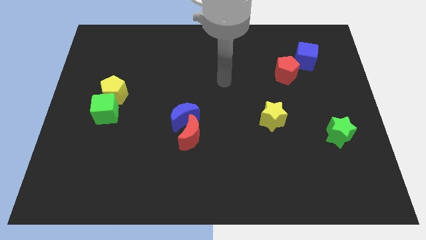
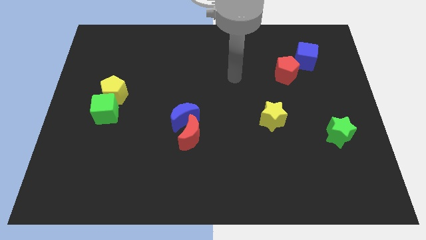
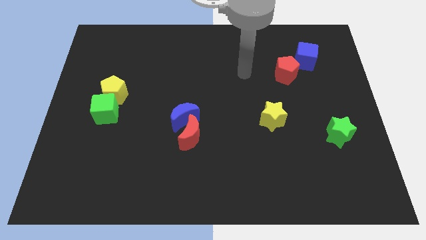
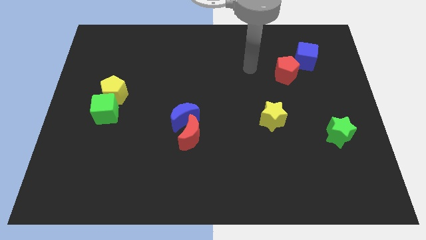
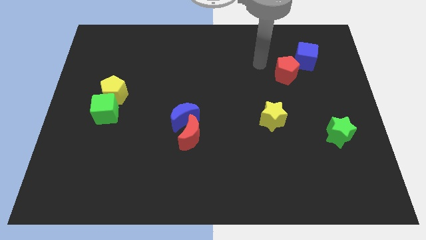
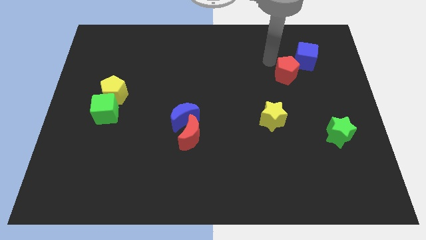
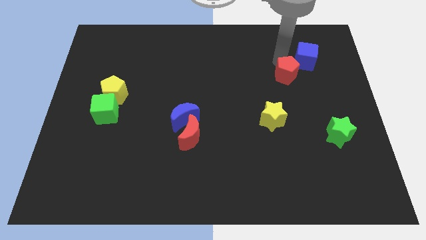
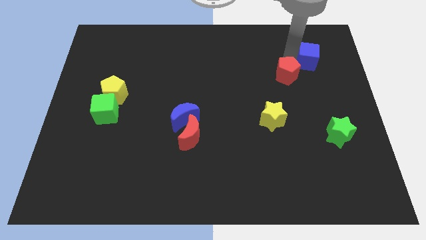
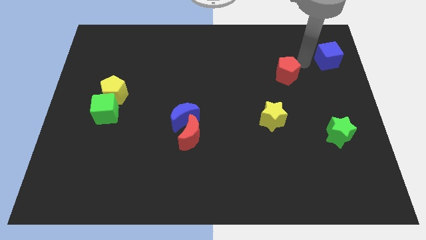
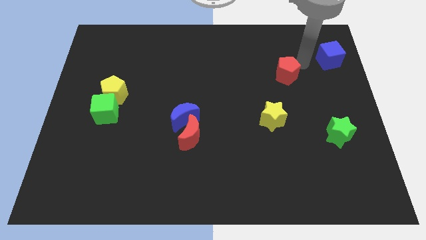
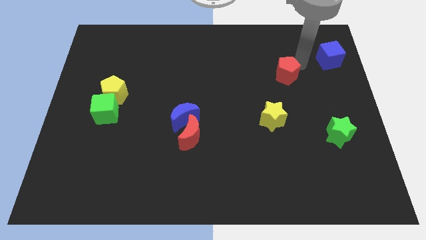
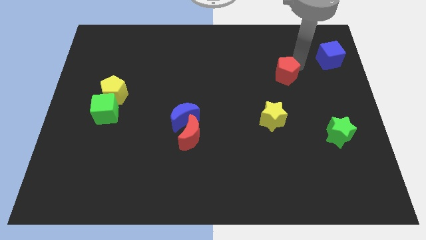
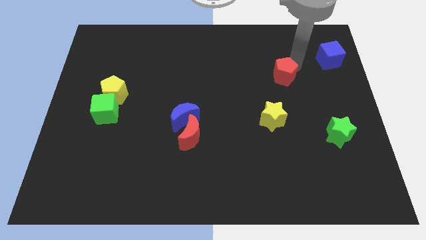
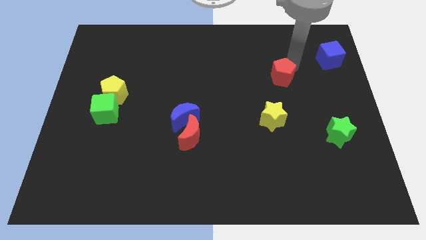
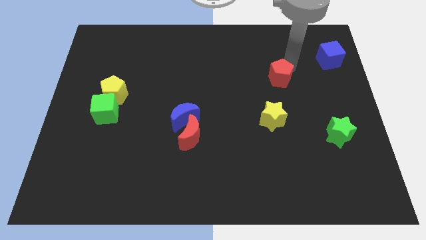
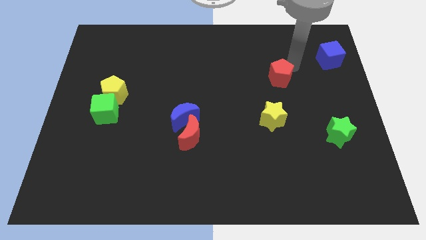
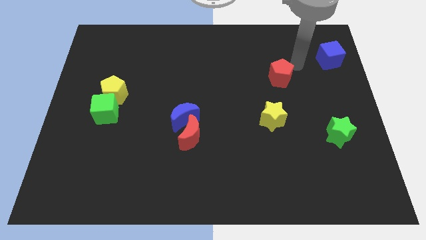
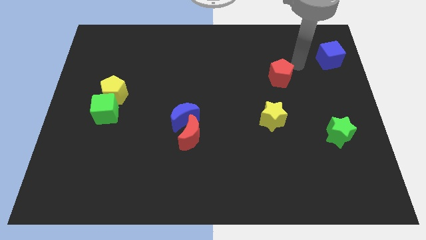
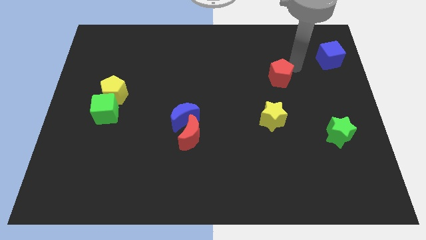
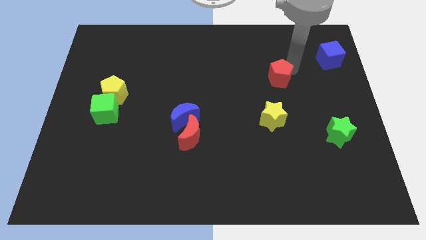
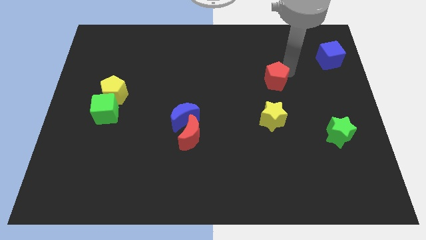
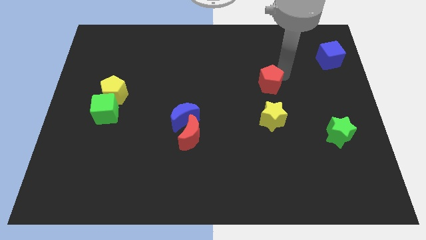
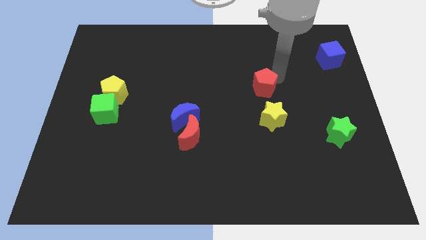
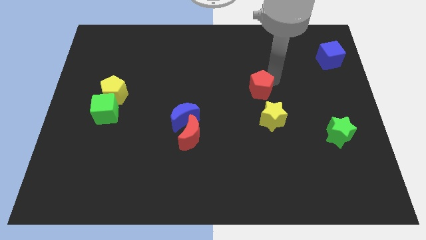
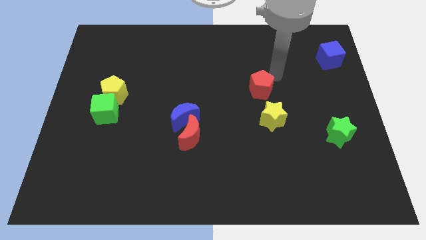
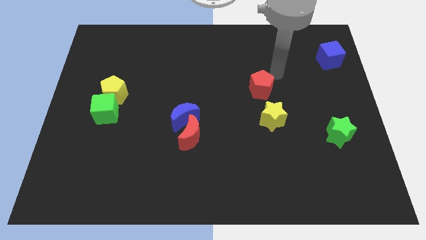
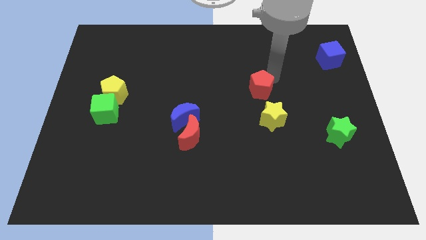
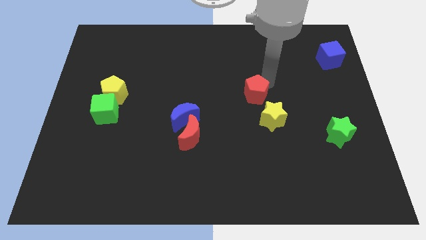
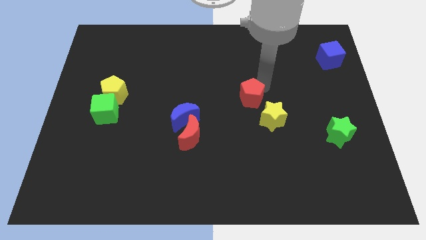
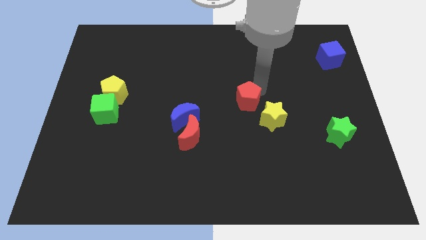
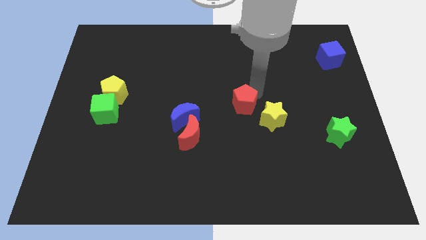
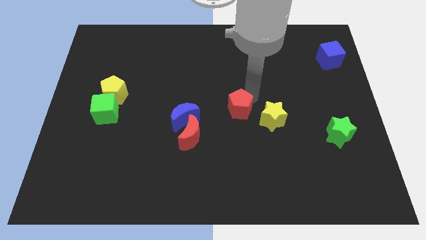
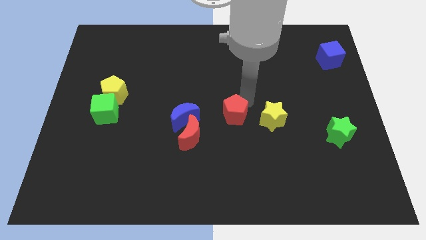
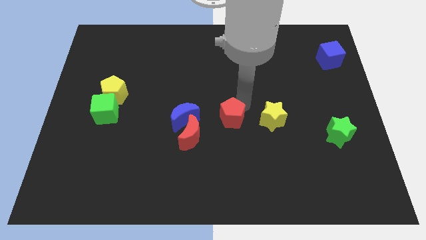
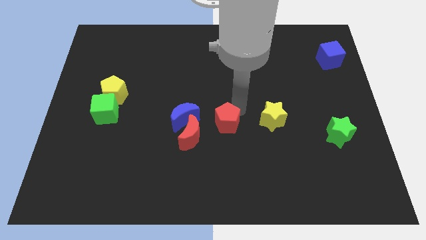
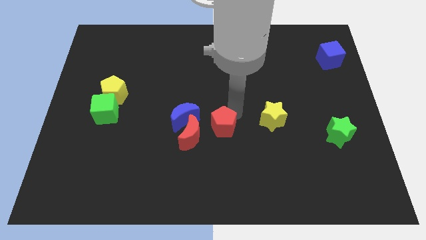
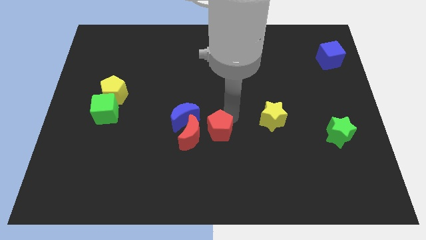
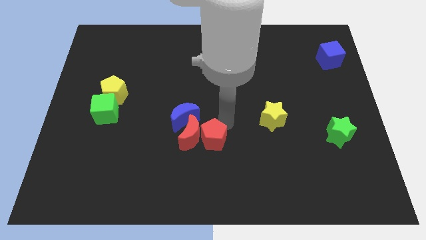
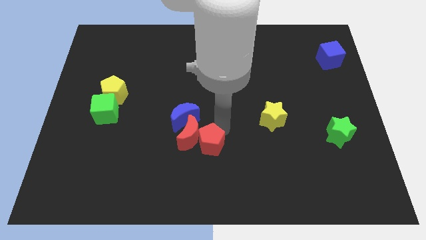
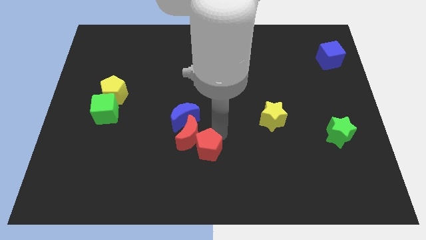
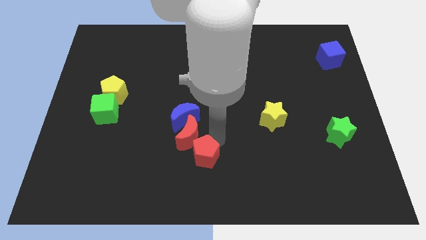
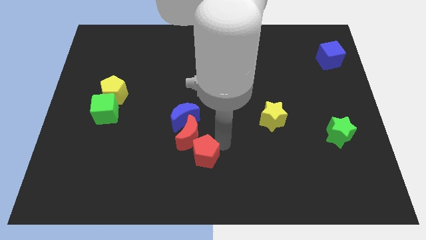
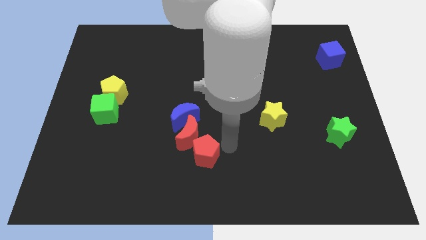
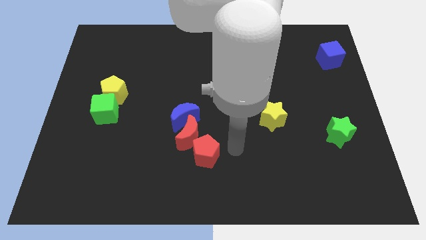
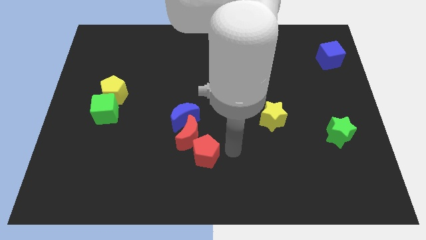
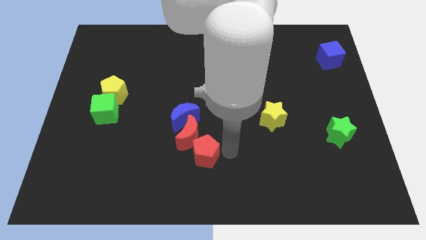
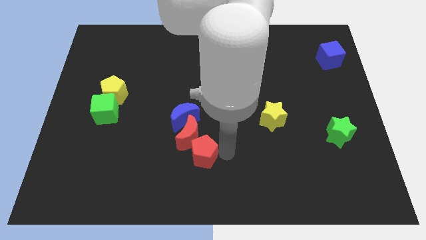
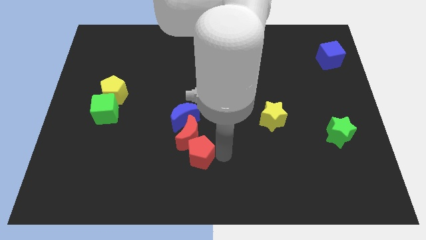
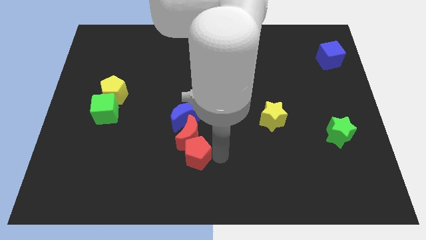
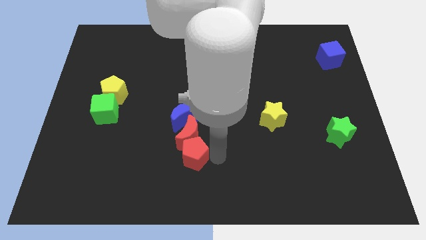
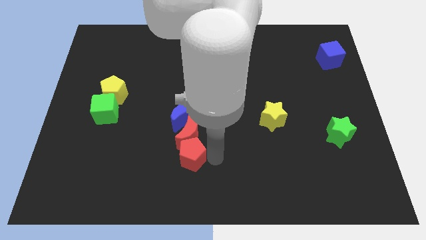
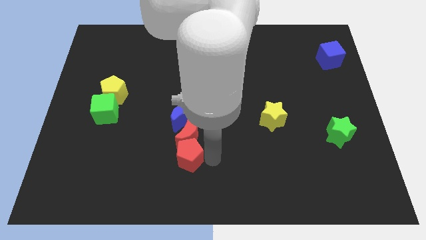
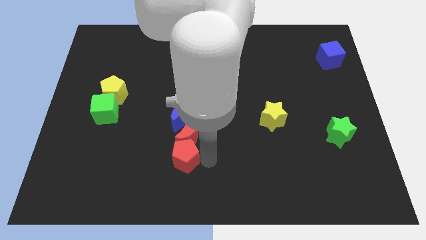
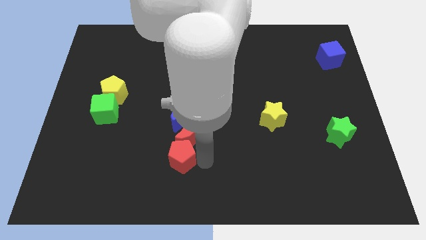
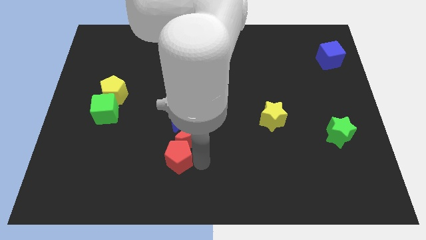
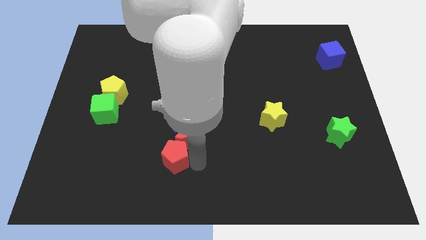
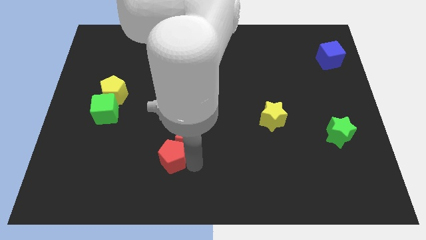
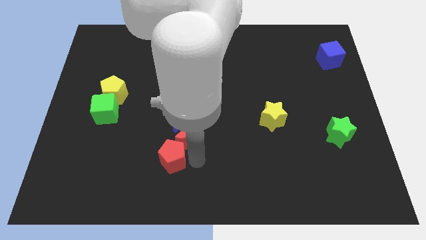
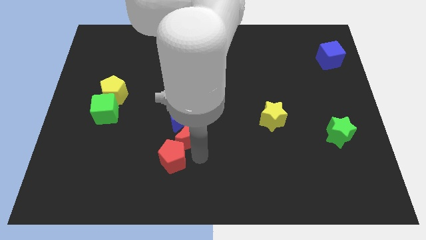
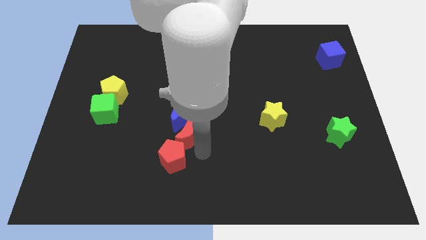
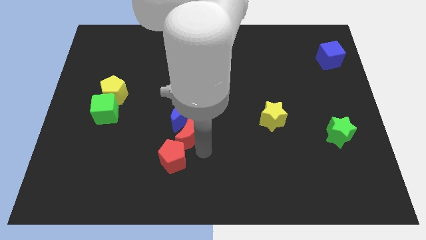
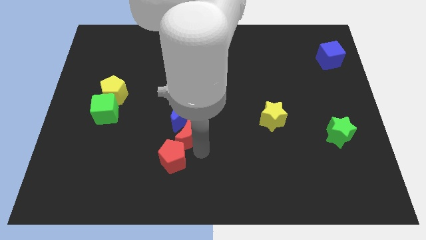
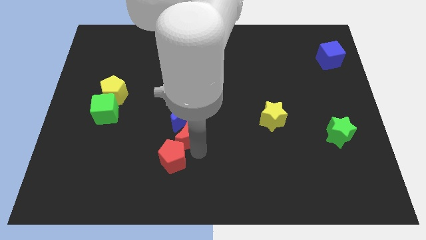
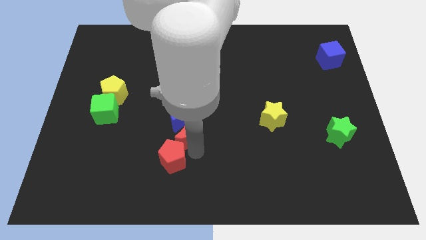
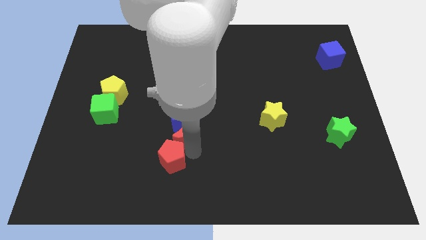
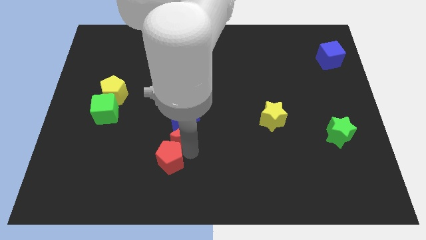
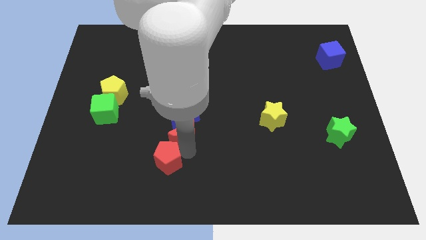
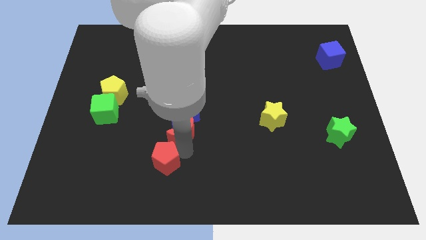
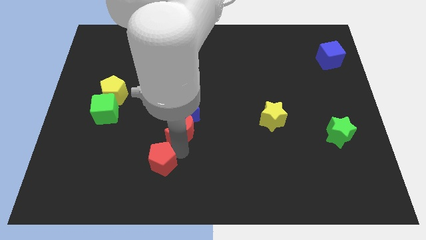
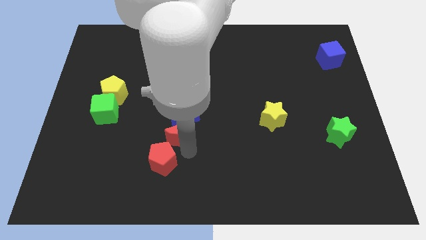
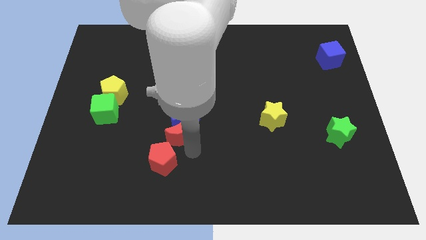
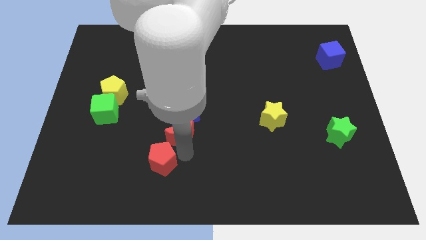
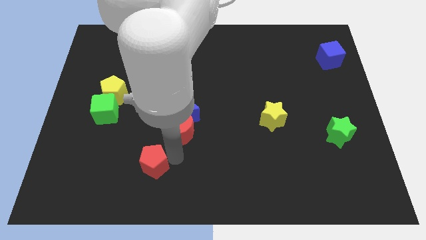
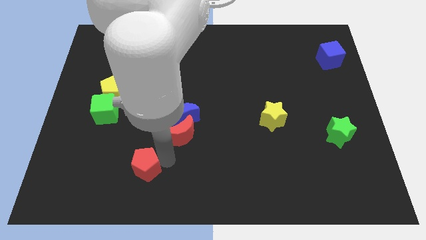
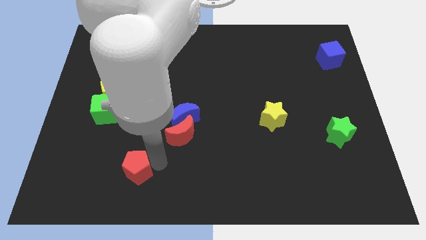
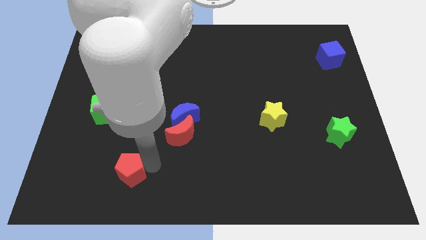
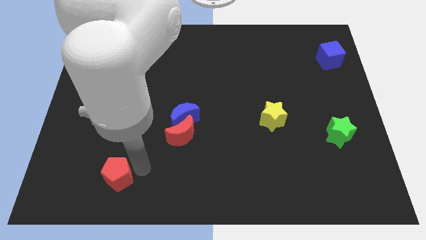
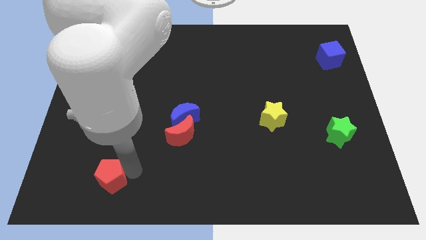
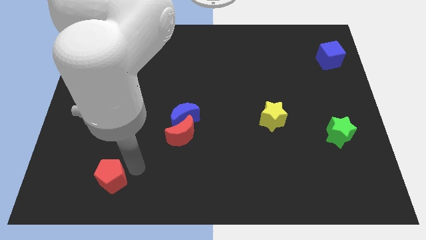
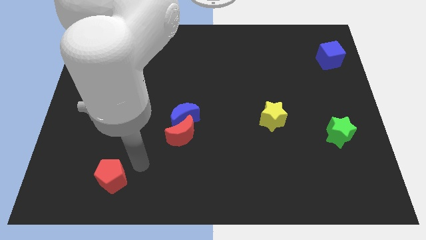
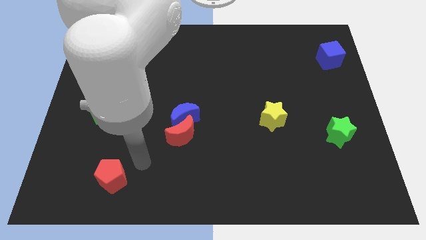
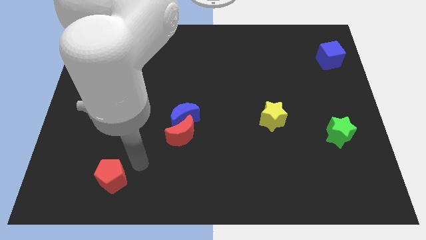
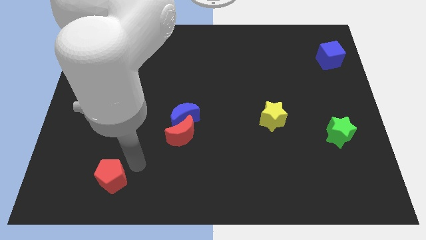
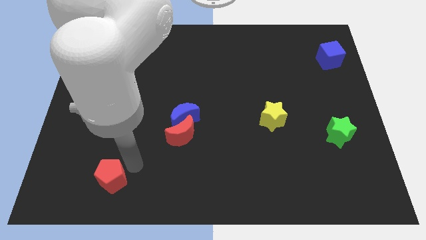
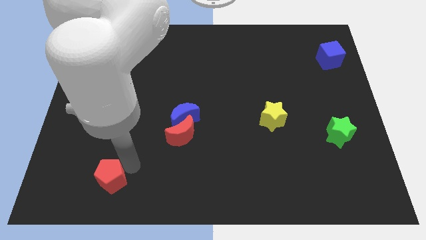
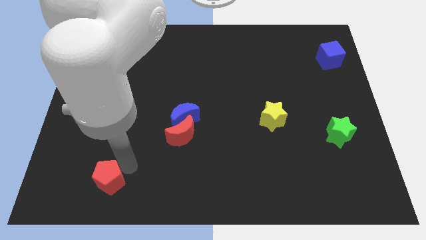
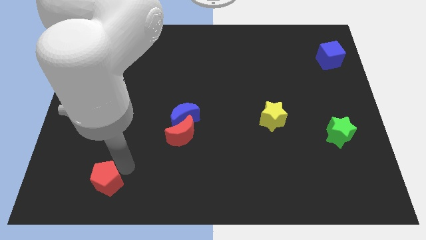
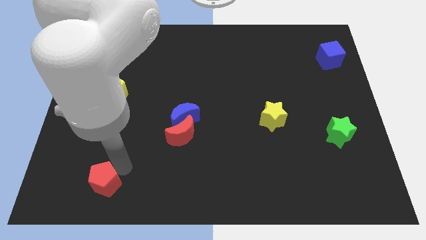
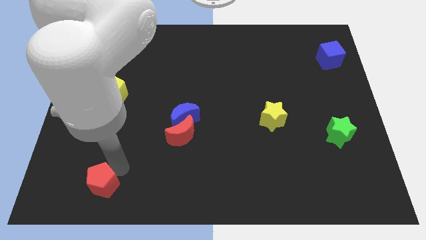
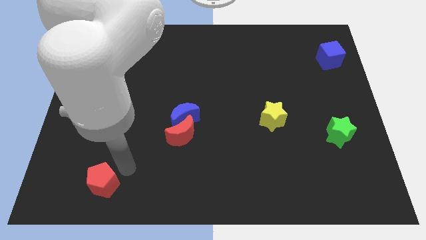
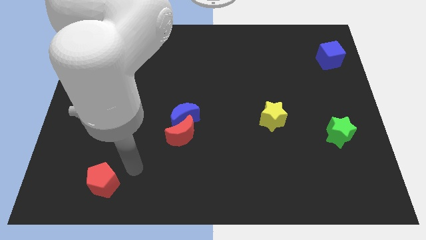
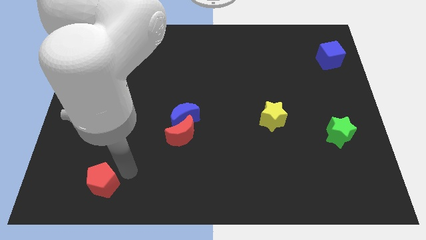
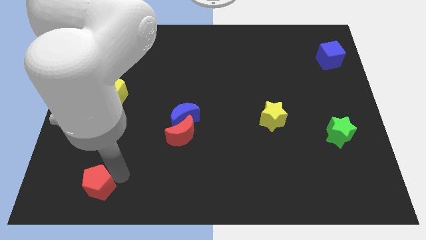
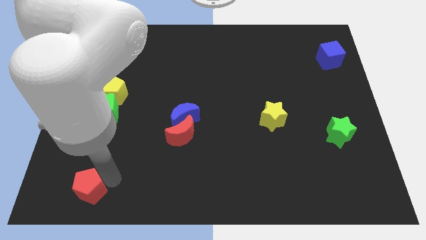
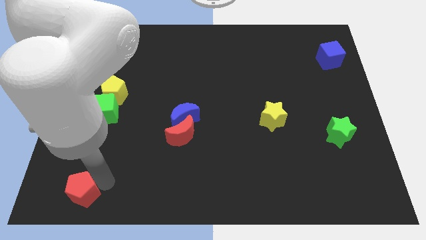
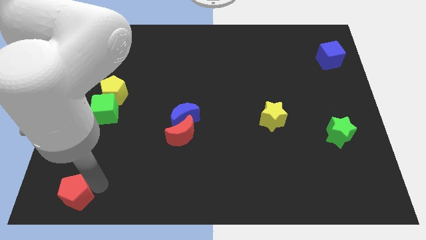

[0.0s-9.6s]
push the red pentagon to the bottom left
